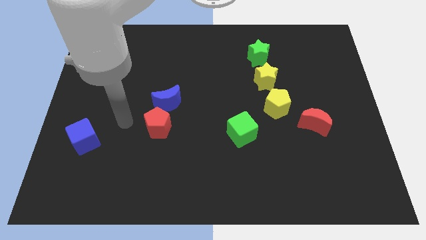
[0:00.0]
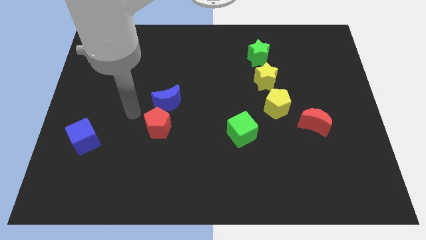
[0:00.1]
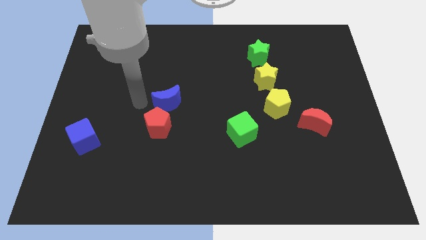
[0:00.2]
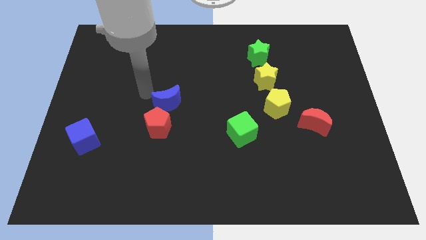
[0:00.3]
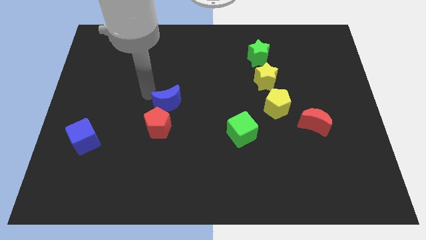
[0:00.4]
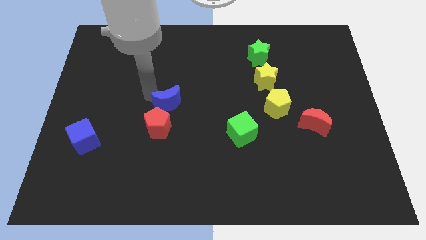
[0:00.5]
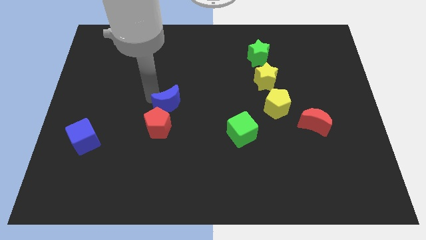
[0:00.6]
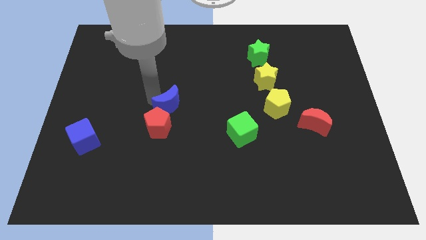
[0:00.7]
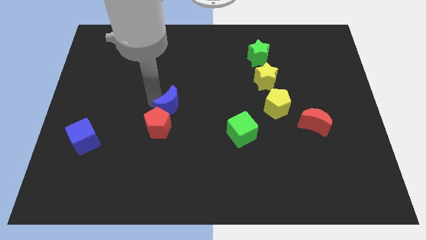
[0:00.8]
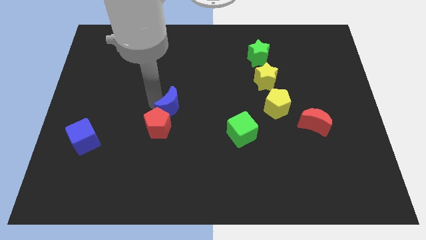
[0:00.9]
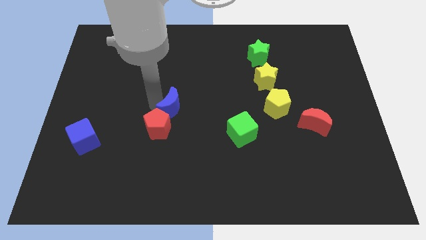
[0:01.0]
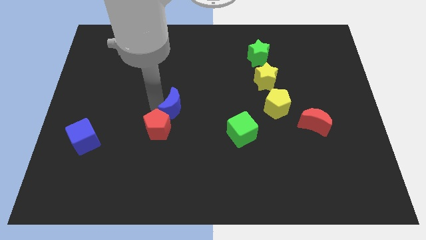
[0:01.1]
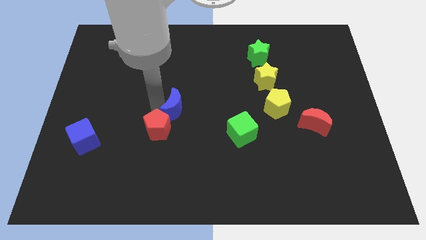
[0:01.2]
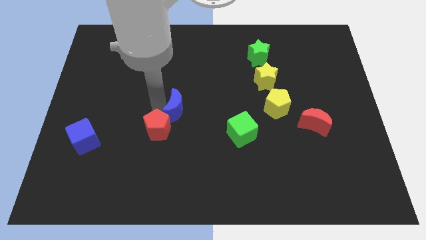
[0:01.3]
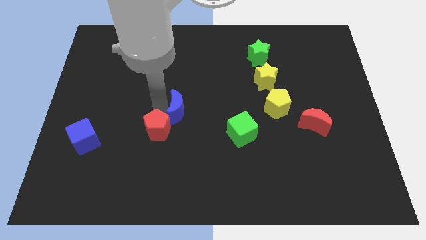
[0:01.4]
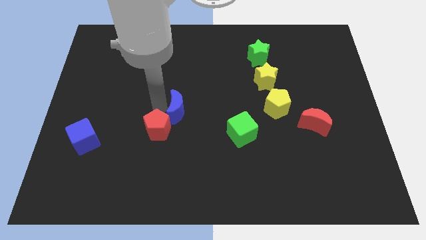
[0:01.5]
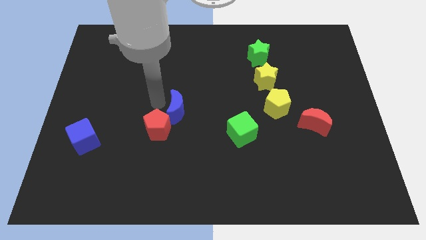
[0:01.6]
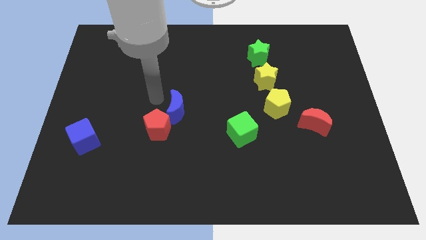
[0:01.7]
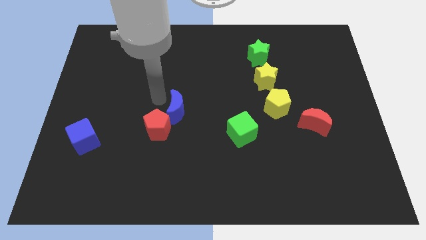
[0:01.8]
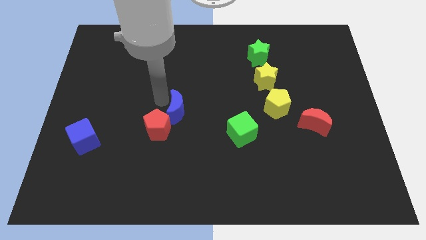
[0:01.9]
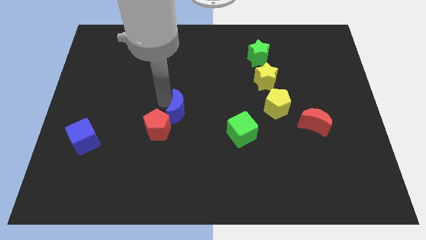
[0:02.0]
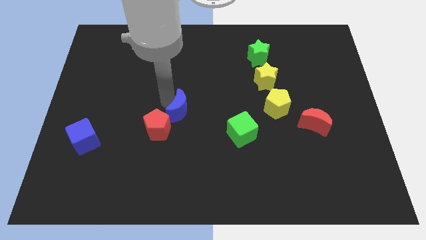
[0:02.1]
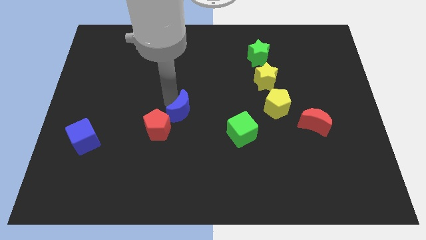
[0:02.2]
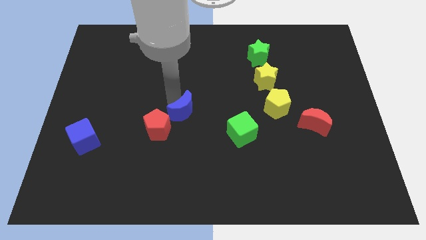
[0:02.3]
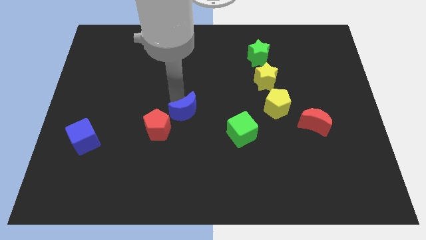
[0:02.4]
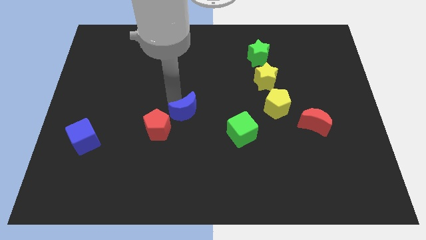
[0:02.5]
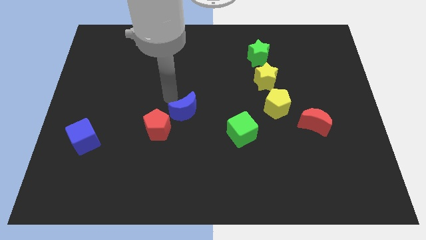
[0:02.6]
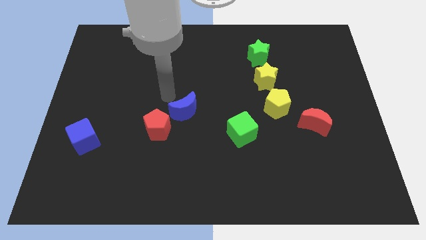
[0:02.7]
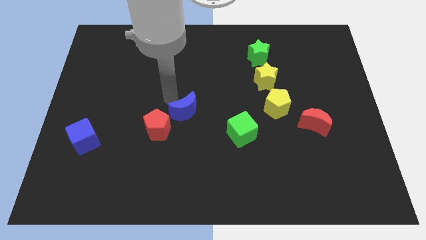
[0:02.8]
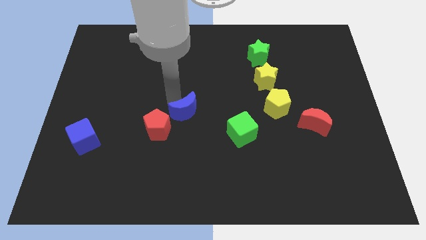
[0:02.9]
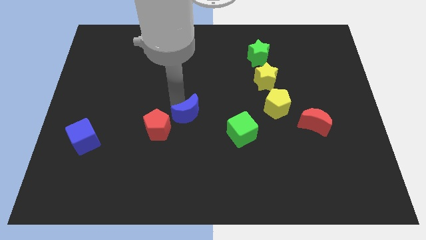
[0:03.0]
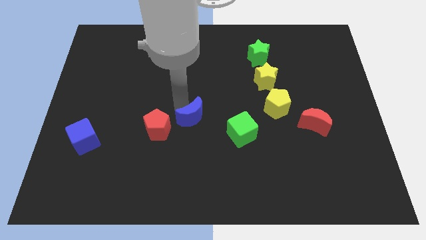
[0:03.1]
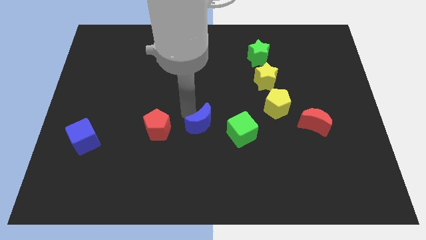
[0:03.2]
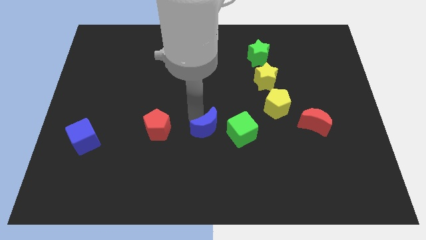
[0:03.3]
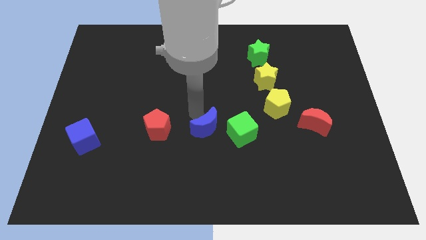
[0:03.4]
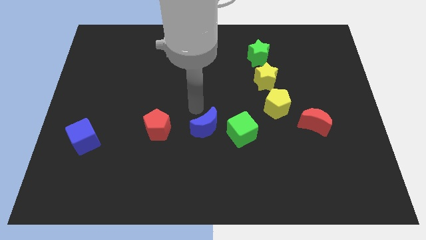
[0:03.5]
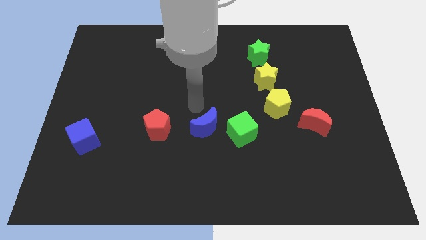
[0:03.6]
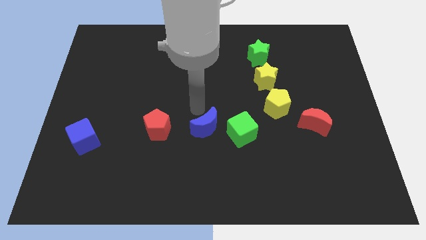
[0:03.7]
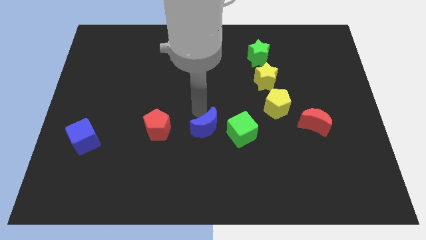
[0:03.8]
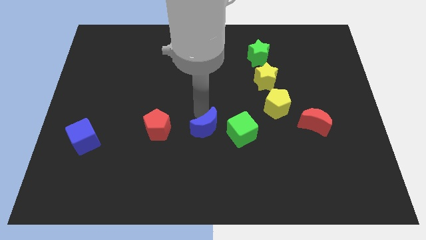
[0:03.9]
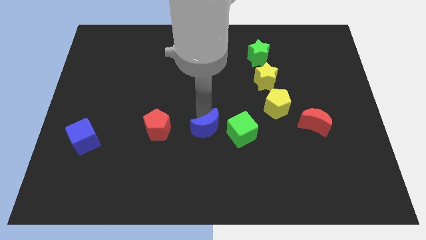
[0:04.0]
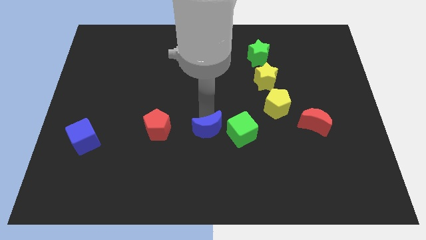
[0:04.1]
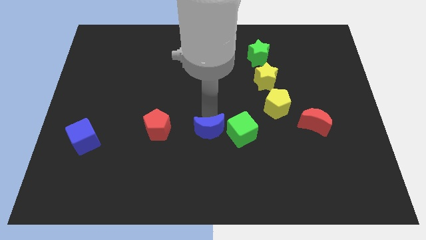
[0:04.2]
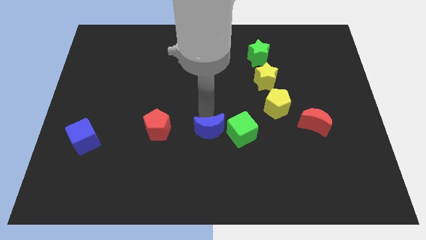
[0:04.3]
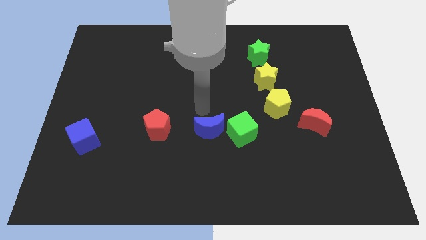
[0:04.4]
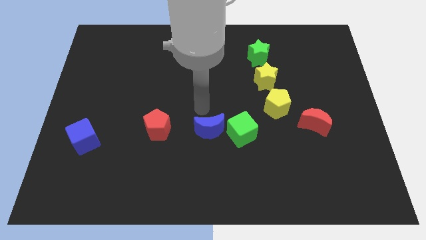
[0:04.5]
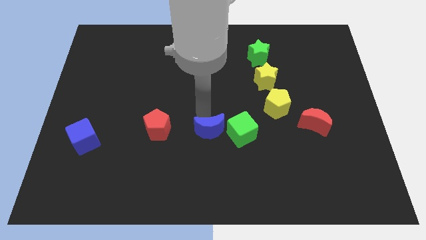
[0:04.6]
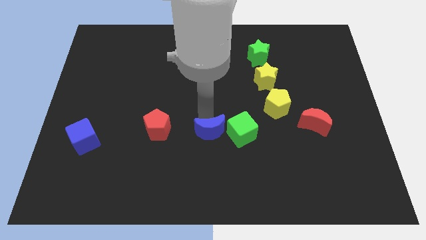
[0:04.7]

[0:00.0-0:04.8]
put the blue moon to the bottom left side of the green cube

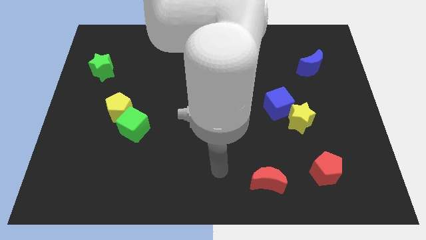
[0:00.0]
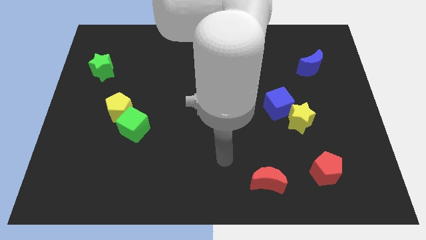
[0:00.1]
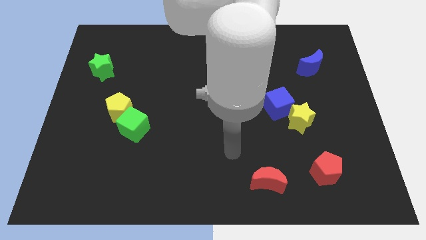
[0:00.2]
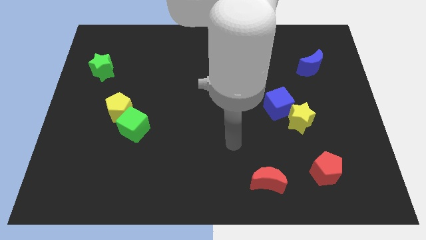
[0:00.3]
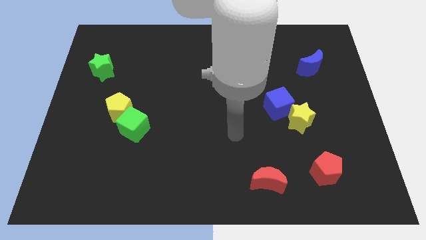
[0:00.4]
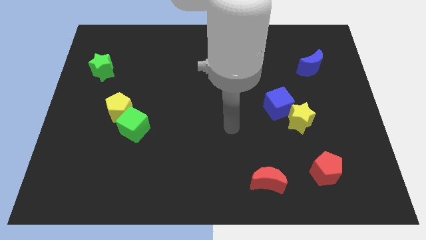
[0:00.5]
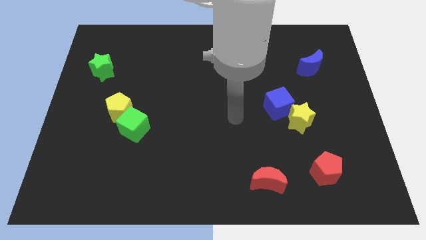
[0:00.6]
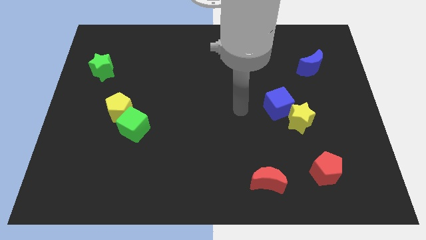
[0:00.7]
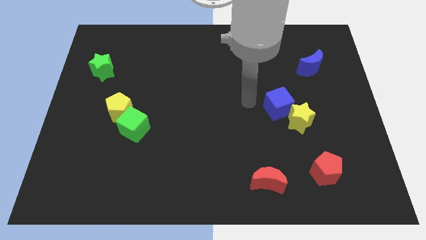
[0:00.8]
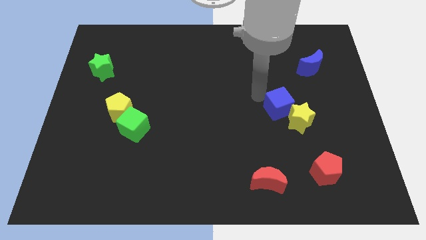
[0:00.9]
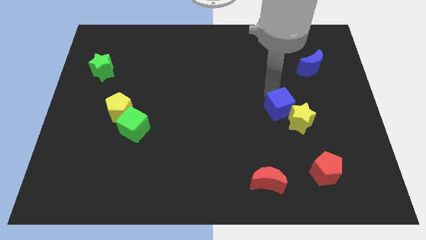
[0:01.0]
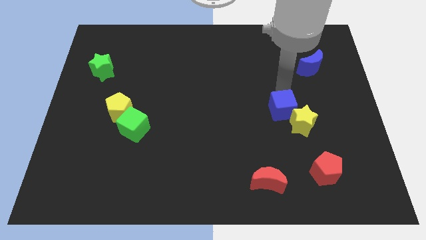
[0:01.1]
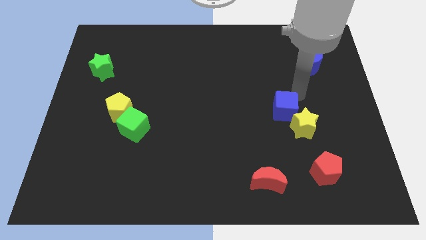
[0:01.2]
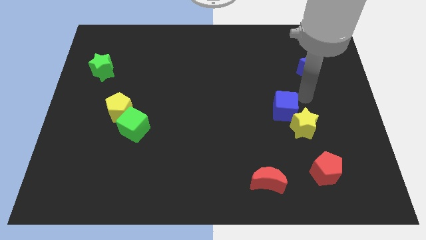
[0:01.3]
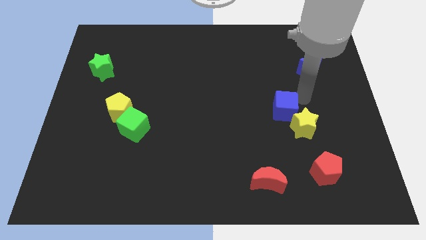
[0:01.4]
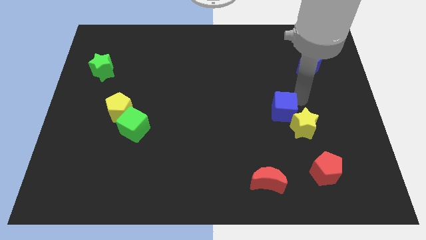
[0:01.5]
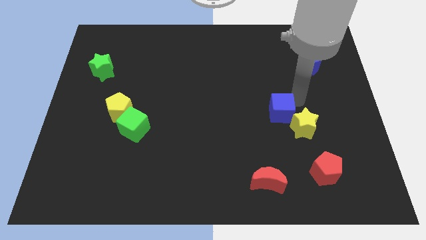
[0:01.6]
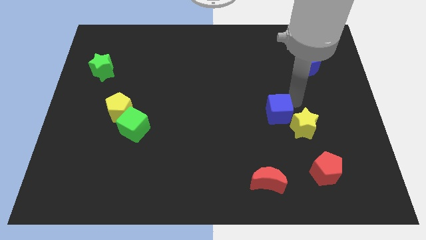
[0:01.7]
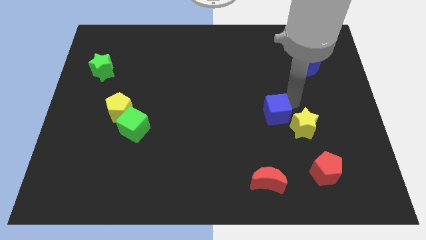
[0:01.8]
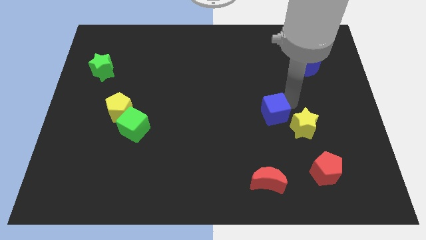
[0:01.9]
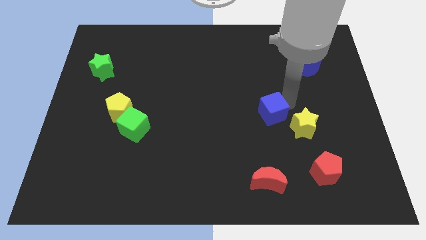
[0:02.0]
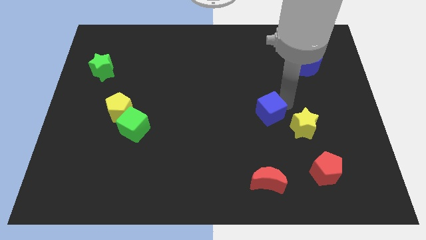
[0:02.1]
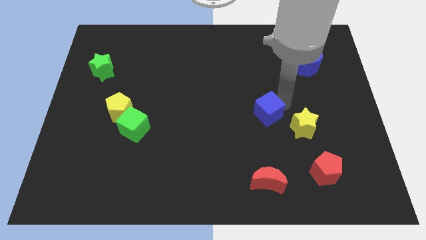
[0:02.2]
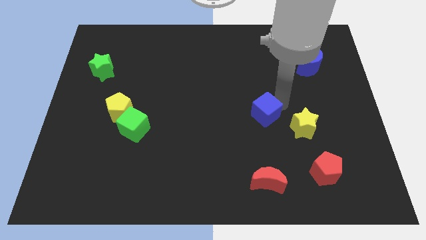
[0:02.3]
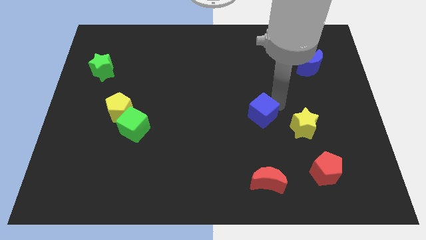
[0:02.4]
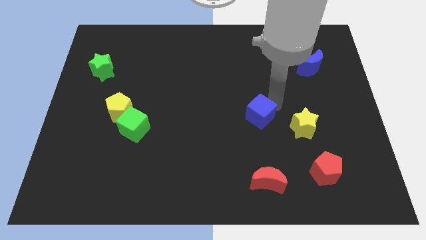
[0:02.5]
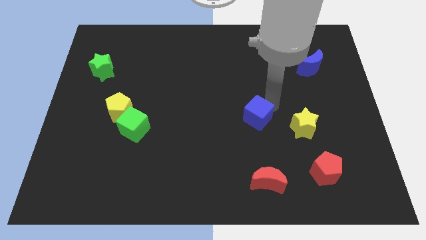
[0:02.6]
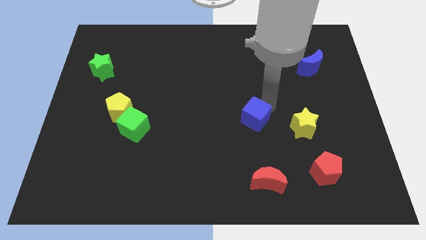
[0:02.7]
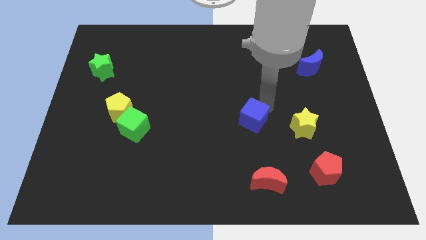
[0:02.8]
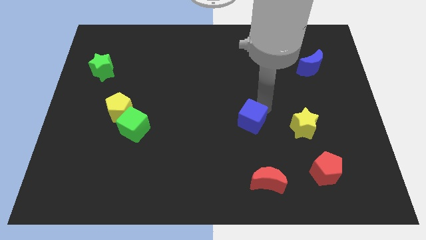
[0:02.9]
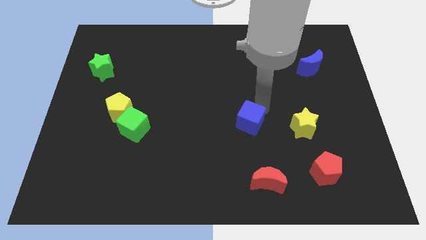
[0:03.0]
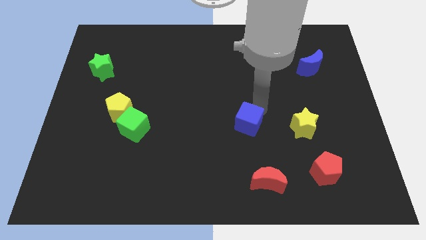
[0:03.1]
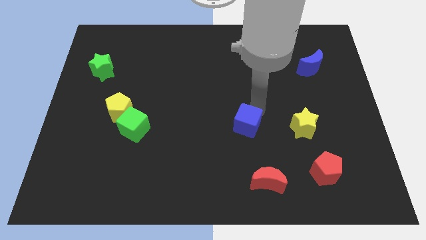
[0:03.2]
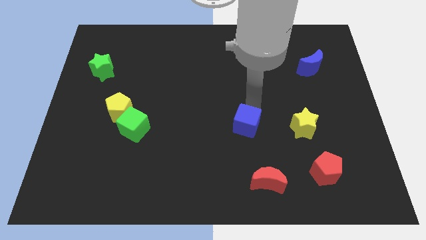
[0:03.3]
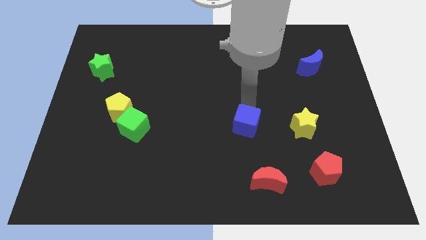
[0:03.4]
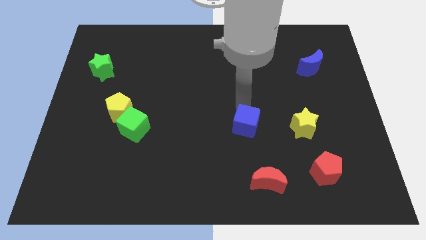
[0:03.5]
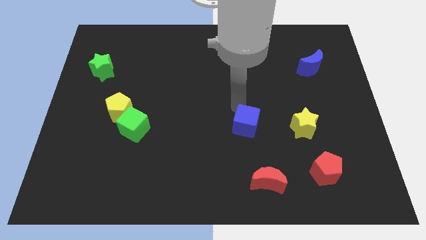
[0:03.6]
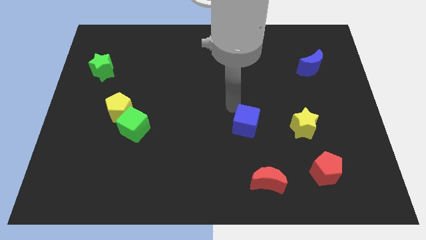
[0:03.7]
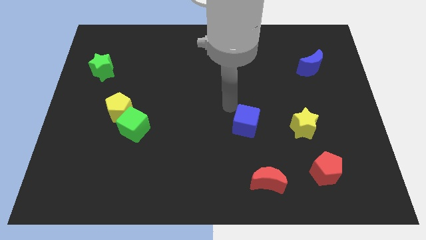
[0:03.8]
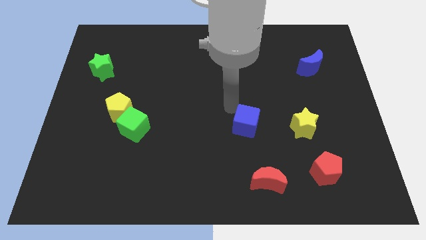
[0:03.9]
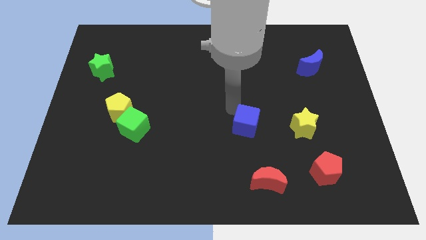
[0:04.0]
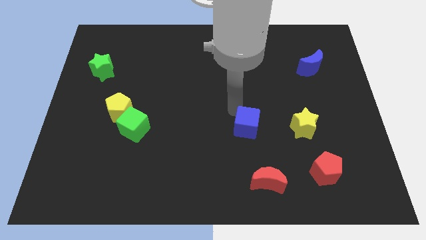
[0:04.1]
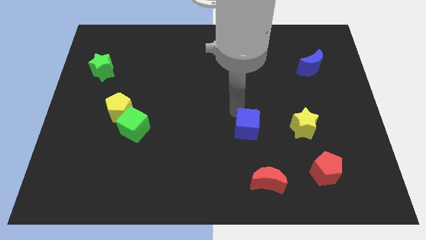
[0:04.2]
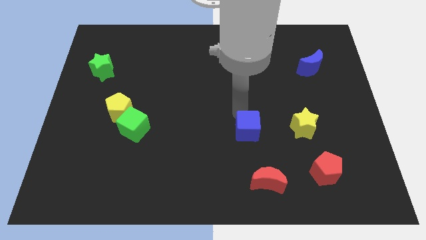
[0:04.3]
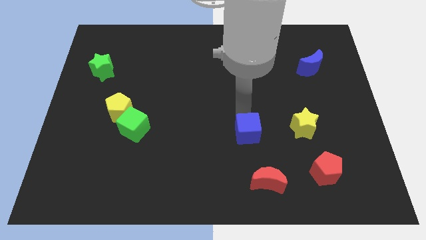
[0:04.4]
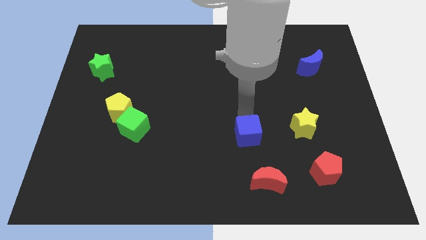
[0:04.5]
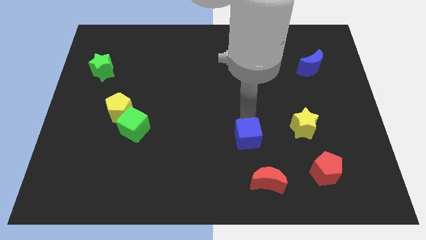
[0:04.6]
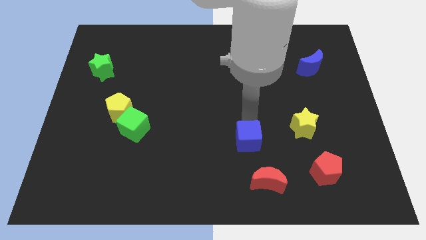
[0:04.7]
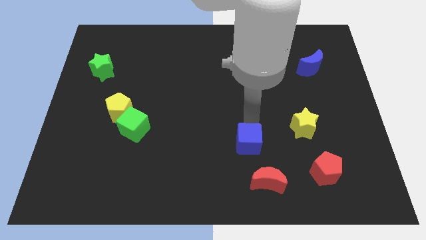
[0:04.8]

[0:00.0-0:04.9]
slide the blue cube diagonally up and to the left of the red moon
